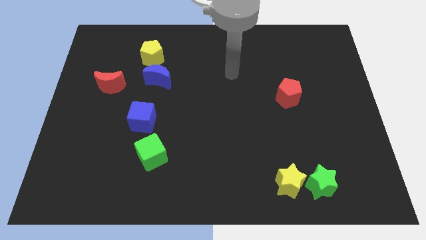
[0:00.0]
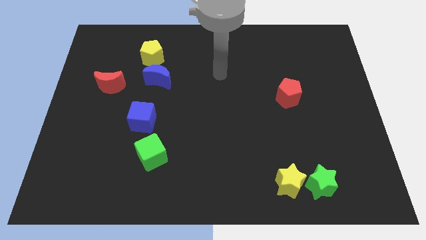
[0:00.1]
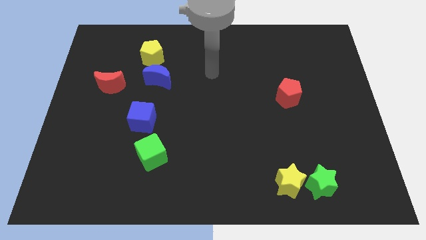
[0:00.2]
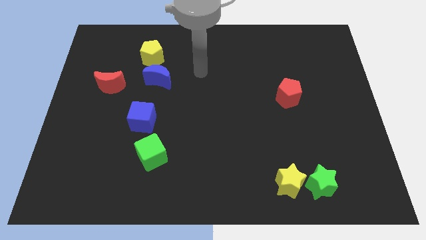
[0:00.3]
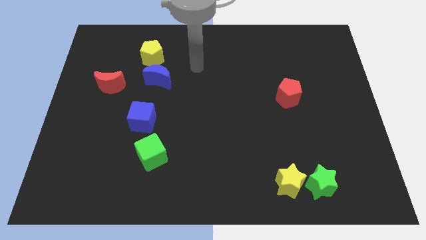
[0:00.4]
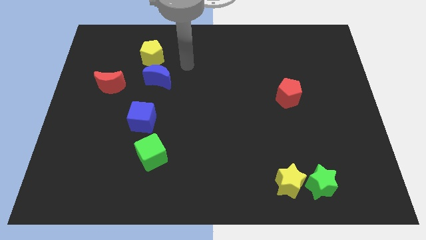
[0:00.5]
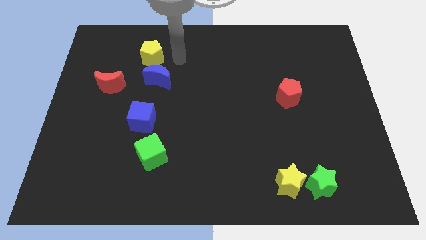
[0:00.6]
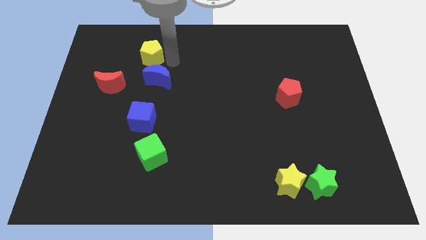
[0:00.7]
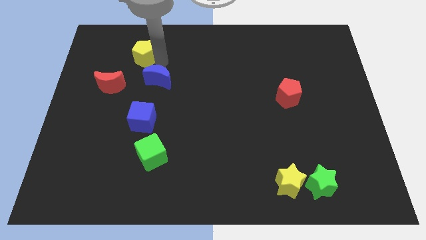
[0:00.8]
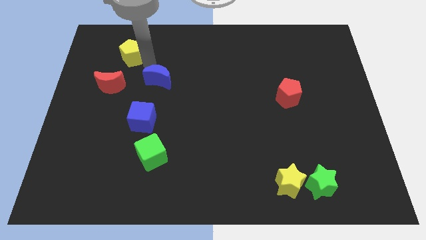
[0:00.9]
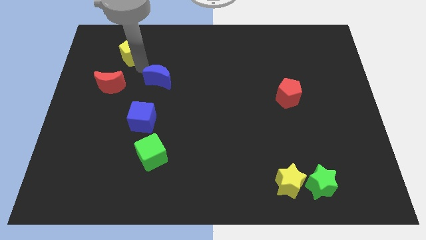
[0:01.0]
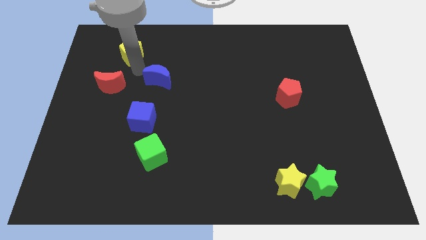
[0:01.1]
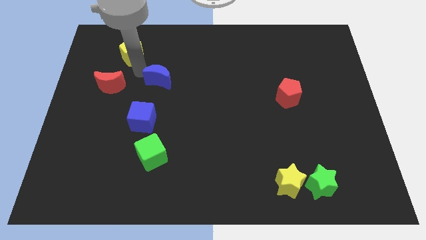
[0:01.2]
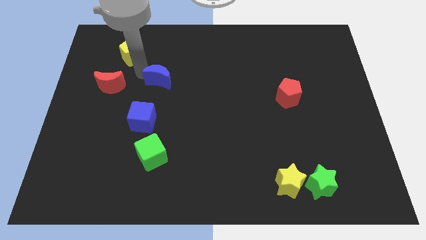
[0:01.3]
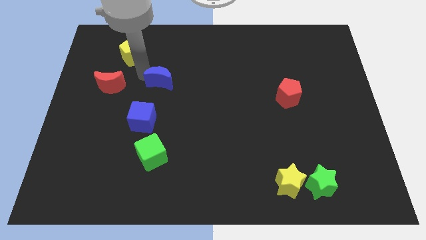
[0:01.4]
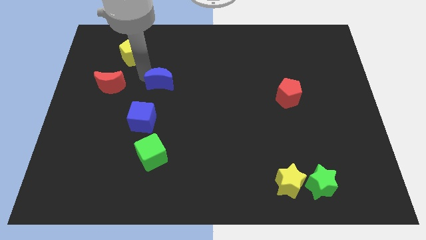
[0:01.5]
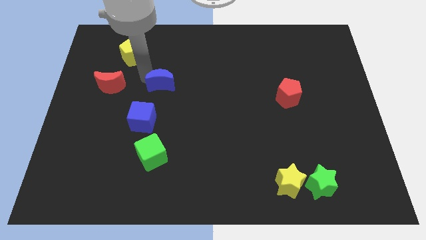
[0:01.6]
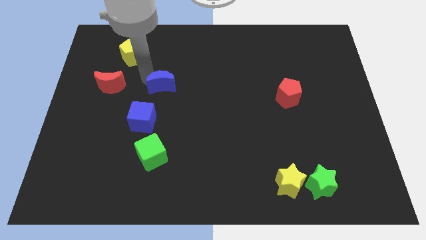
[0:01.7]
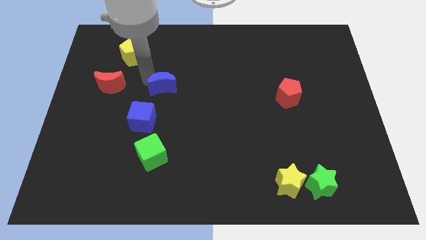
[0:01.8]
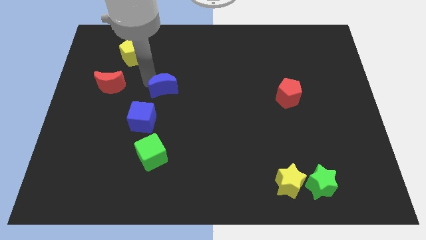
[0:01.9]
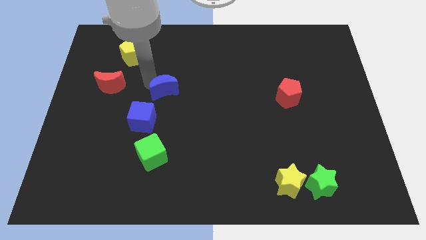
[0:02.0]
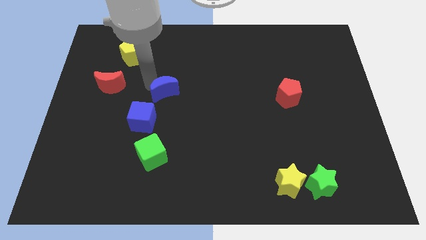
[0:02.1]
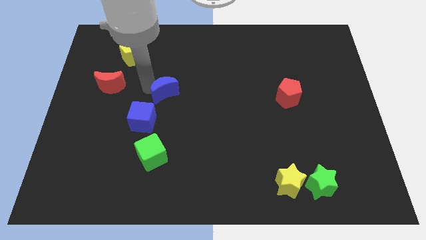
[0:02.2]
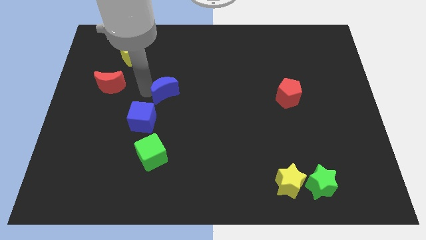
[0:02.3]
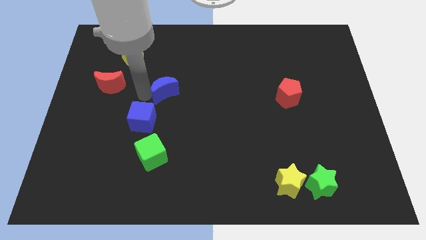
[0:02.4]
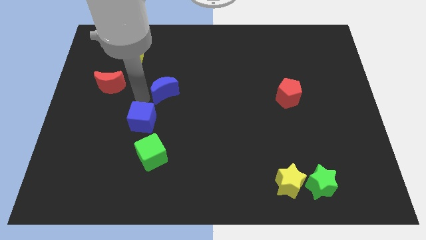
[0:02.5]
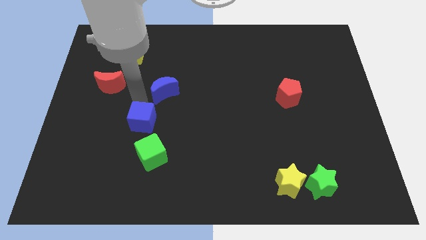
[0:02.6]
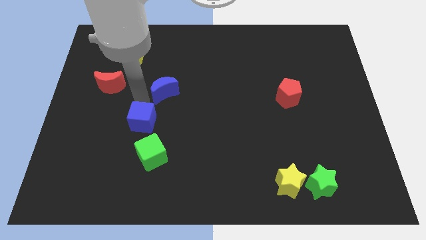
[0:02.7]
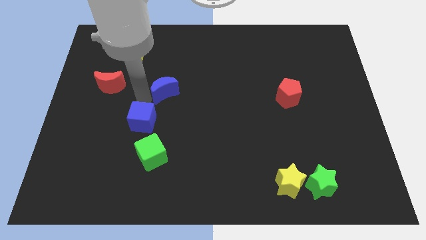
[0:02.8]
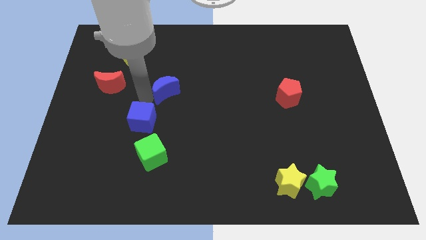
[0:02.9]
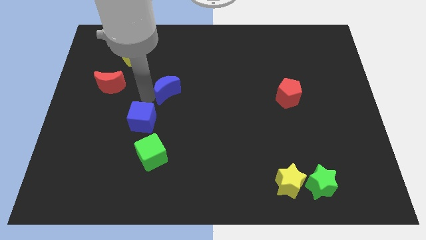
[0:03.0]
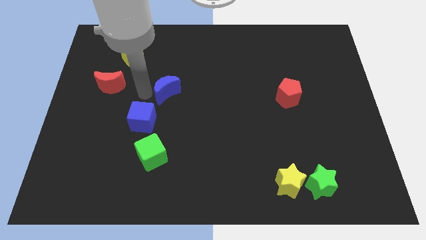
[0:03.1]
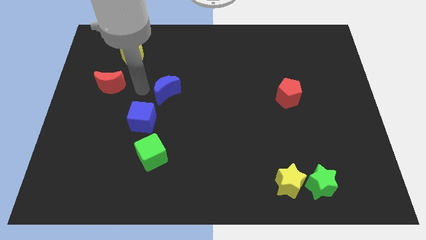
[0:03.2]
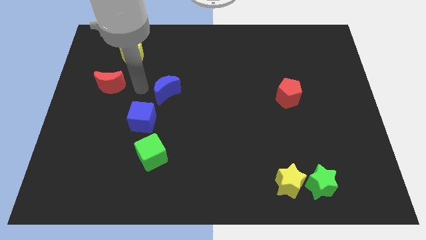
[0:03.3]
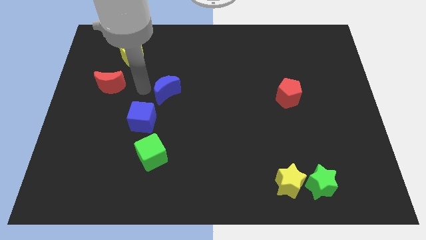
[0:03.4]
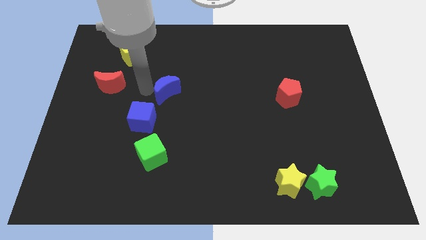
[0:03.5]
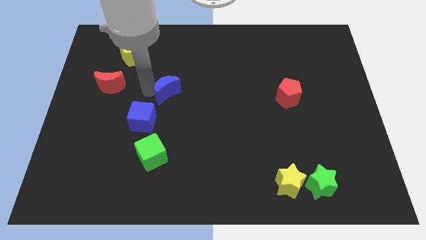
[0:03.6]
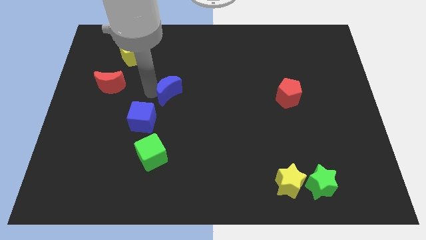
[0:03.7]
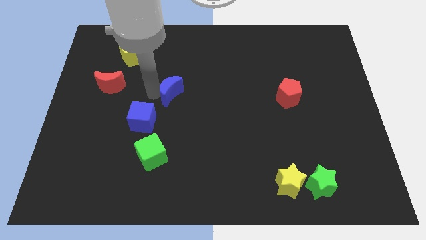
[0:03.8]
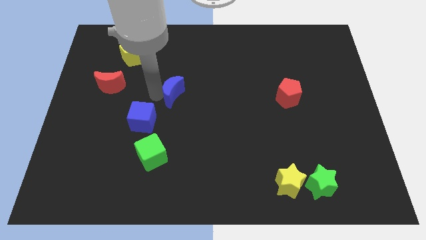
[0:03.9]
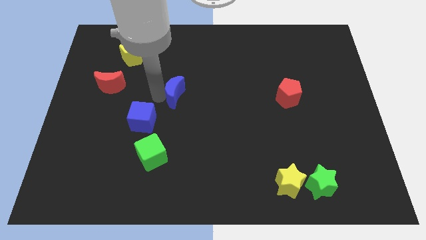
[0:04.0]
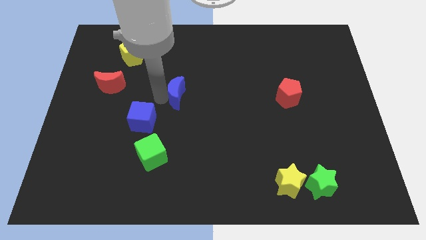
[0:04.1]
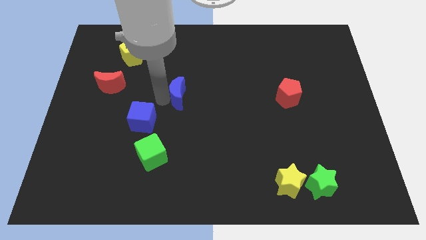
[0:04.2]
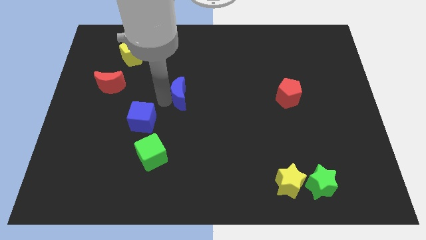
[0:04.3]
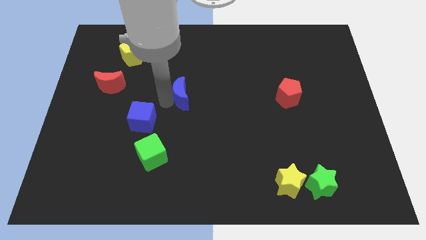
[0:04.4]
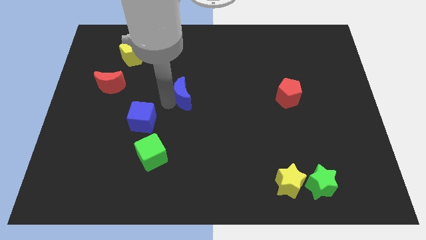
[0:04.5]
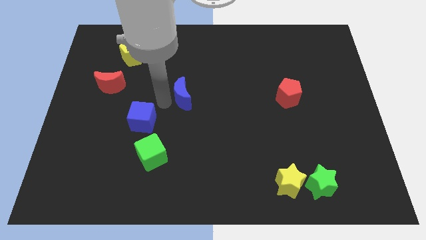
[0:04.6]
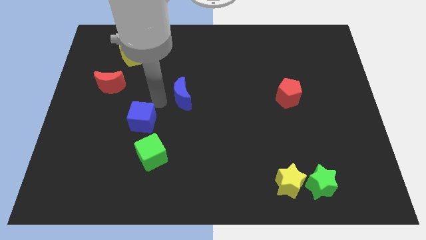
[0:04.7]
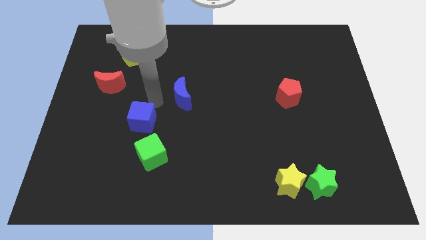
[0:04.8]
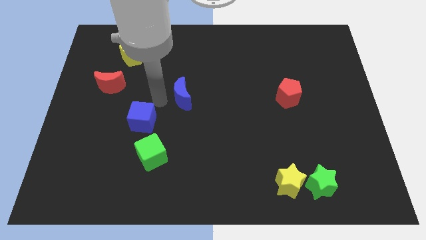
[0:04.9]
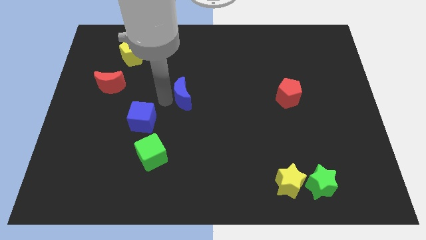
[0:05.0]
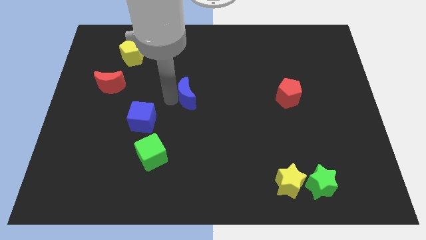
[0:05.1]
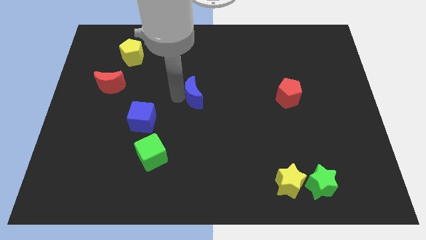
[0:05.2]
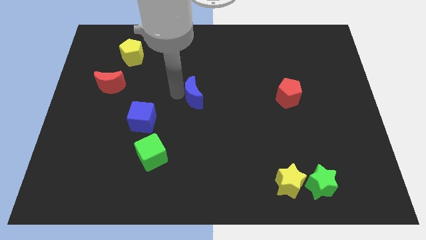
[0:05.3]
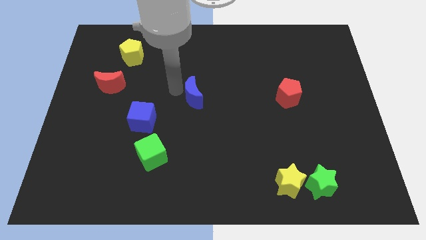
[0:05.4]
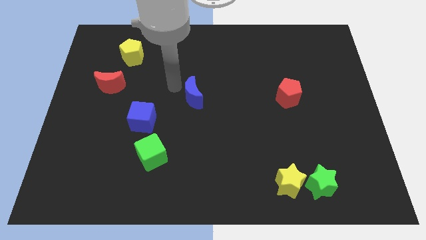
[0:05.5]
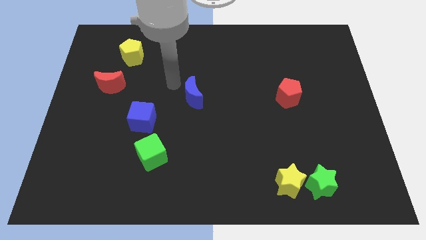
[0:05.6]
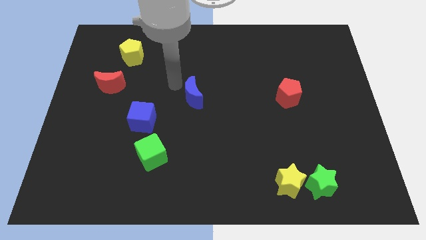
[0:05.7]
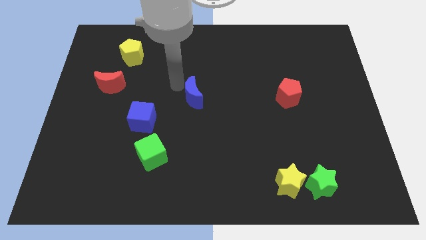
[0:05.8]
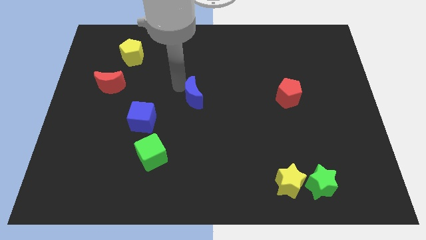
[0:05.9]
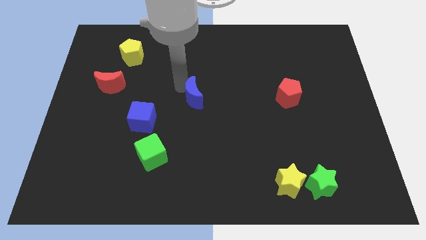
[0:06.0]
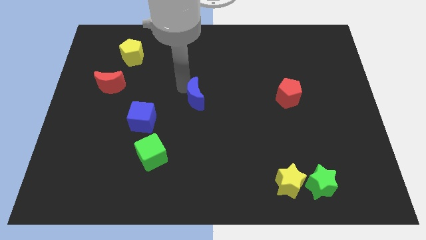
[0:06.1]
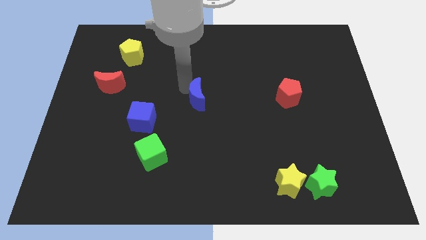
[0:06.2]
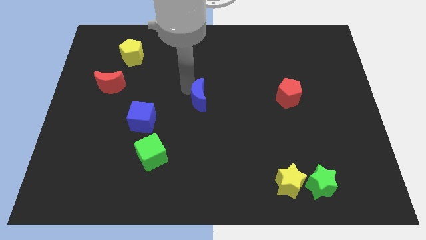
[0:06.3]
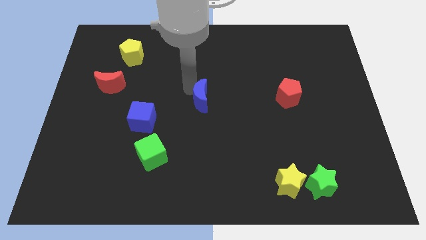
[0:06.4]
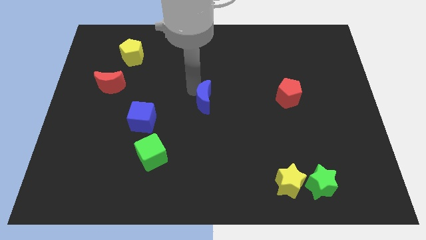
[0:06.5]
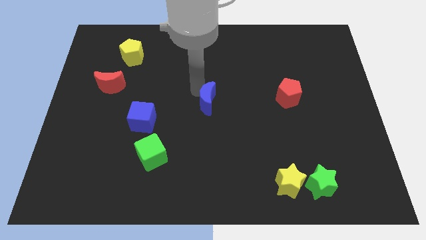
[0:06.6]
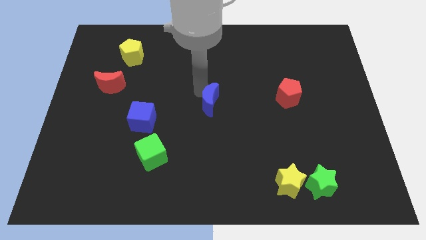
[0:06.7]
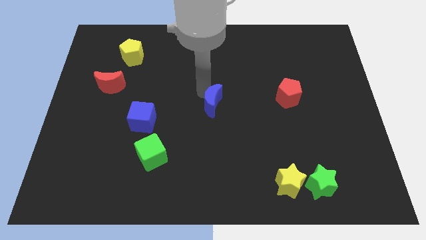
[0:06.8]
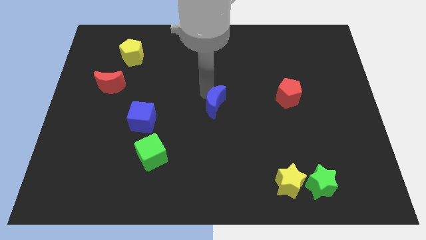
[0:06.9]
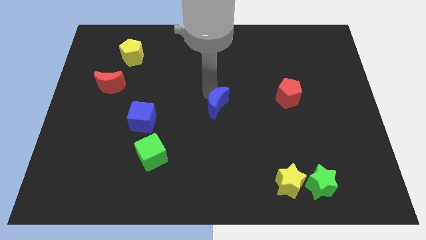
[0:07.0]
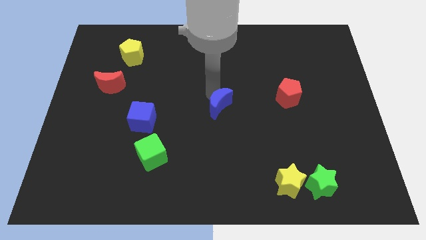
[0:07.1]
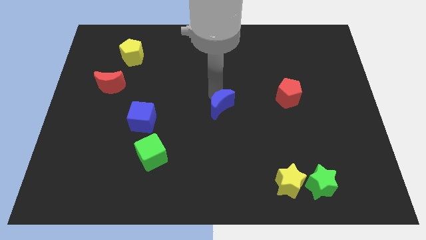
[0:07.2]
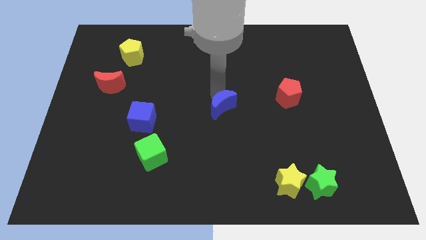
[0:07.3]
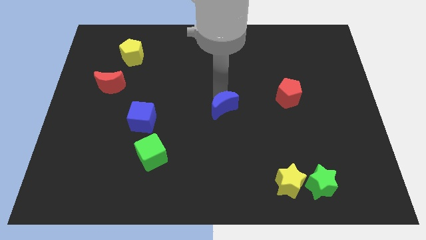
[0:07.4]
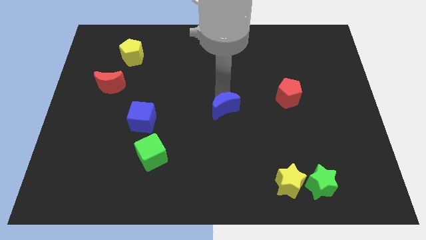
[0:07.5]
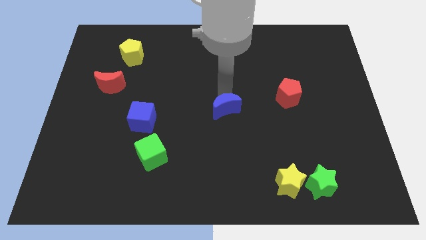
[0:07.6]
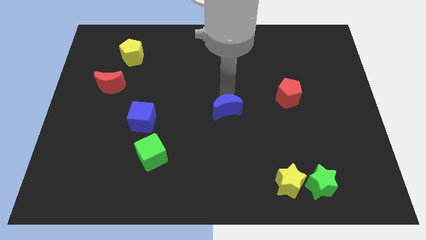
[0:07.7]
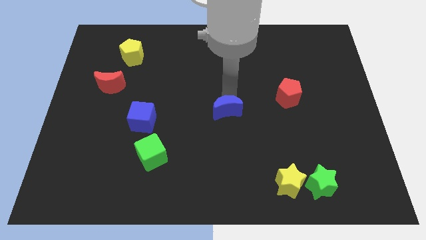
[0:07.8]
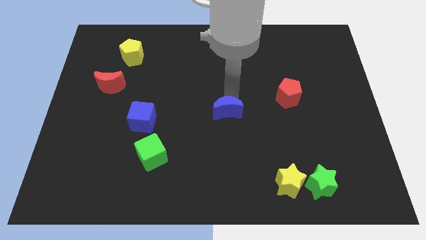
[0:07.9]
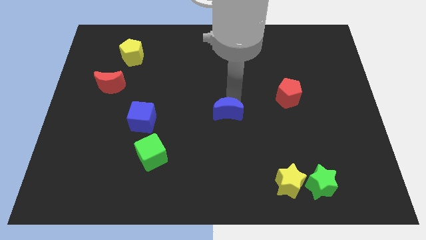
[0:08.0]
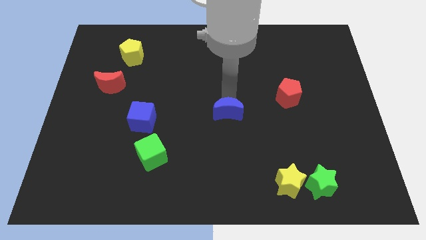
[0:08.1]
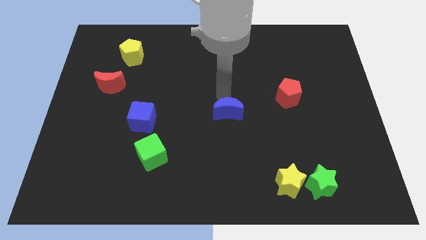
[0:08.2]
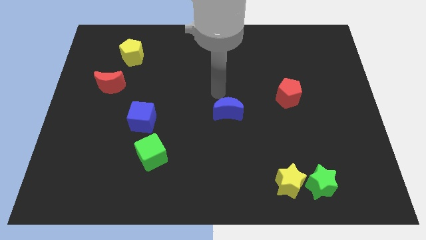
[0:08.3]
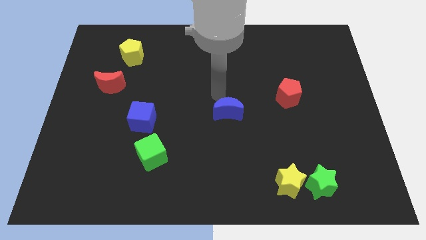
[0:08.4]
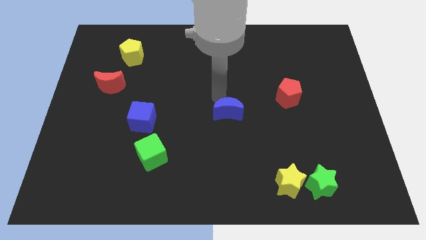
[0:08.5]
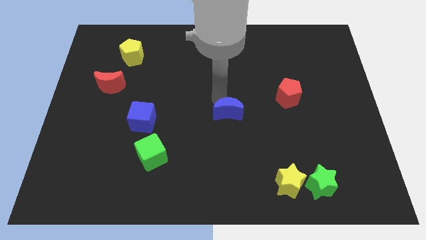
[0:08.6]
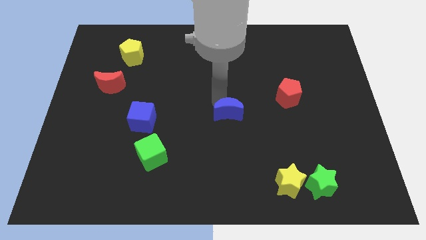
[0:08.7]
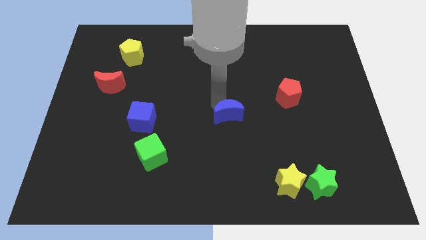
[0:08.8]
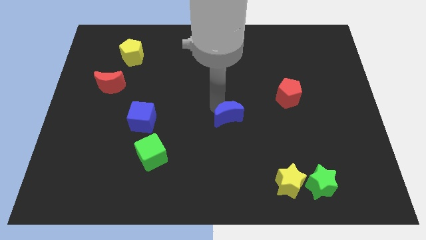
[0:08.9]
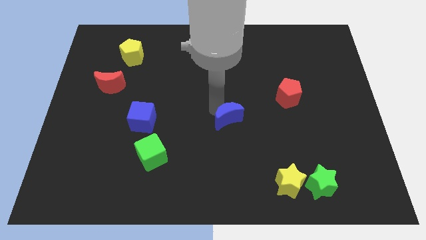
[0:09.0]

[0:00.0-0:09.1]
slide the blue moon down and to the right
